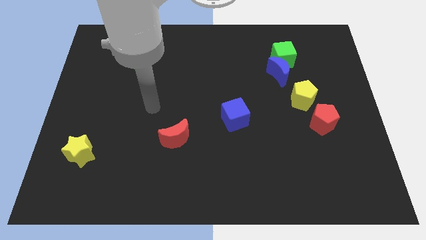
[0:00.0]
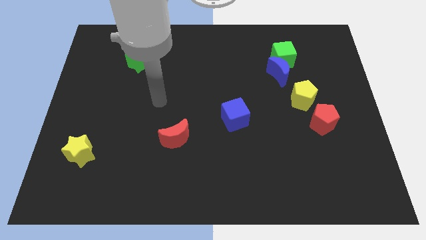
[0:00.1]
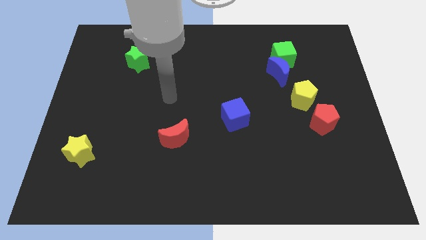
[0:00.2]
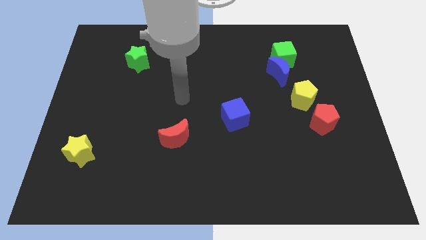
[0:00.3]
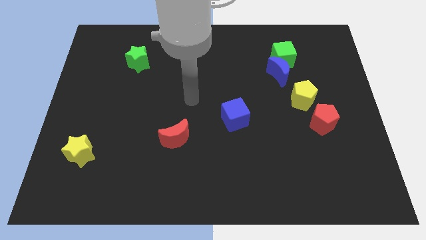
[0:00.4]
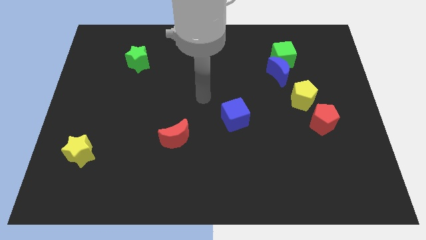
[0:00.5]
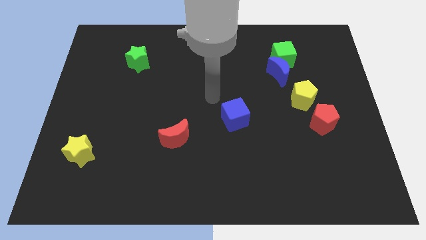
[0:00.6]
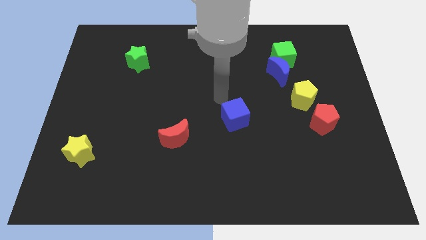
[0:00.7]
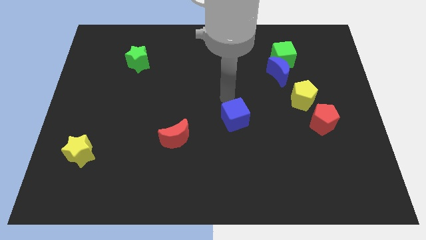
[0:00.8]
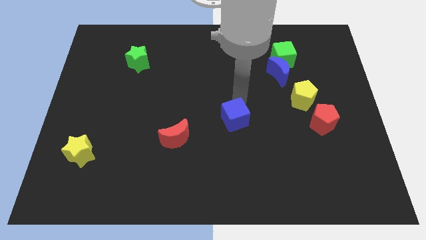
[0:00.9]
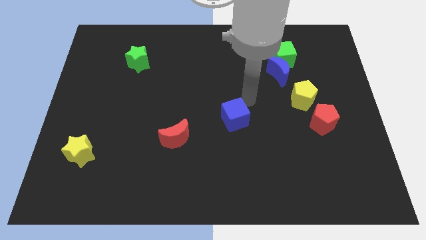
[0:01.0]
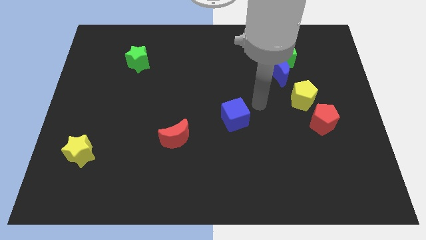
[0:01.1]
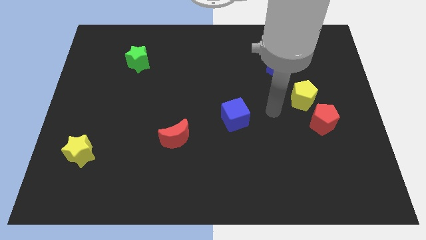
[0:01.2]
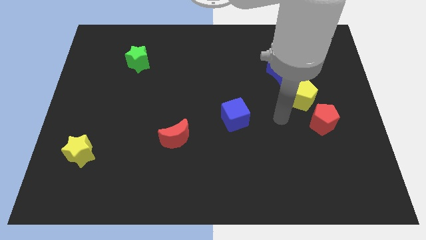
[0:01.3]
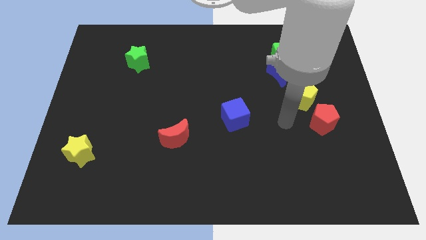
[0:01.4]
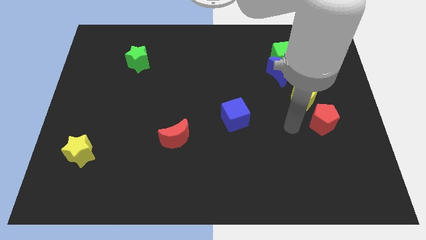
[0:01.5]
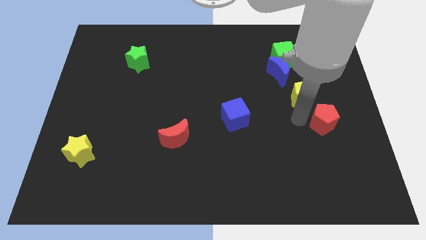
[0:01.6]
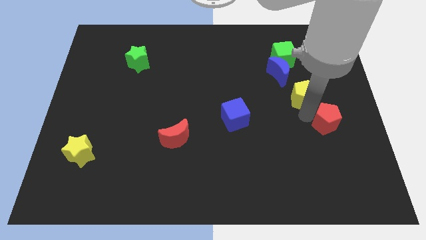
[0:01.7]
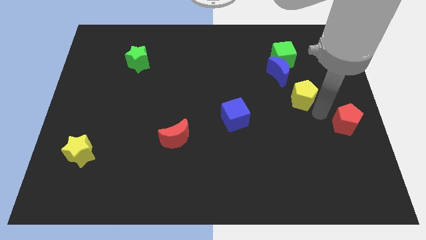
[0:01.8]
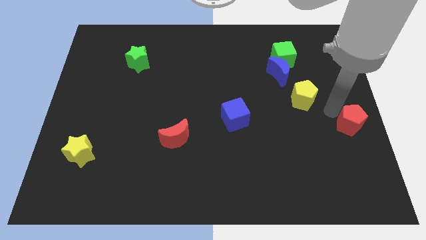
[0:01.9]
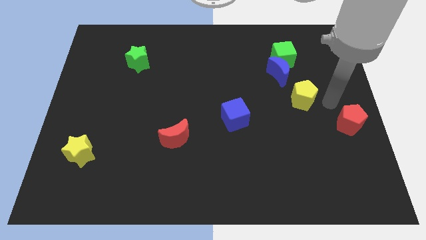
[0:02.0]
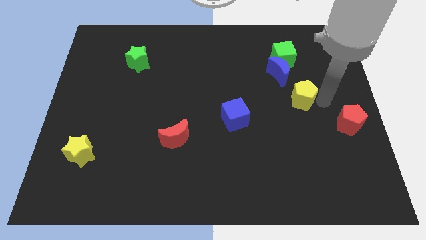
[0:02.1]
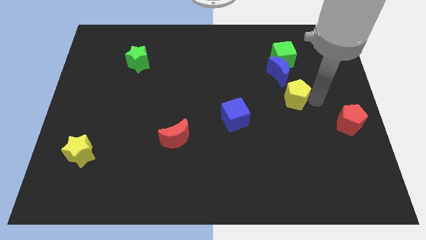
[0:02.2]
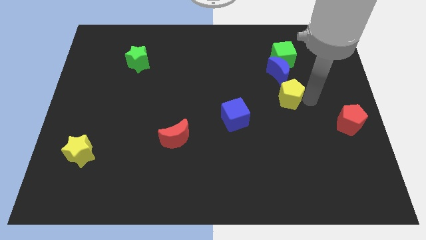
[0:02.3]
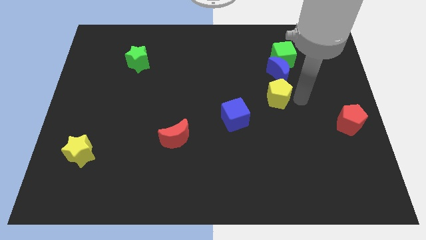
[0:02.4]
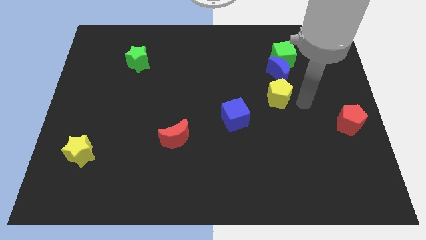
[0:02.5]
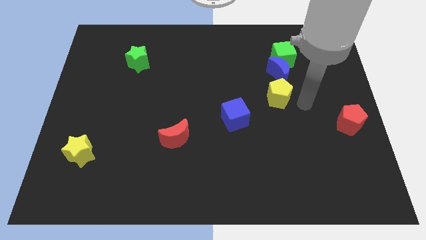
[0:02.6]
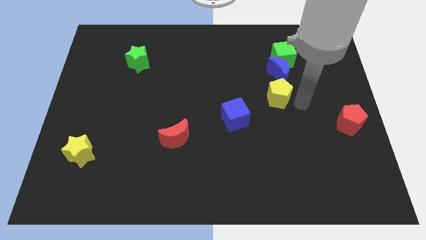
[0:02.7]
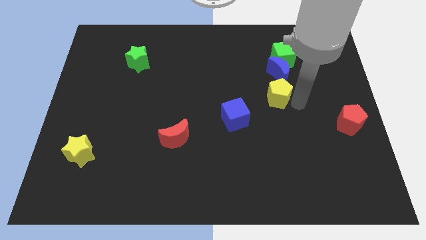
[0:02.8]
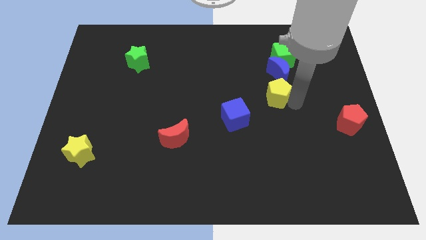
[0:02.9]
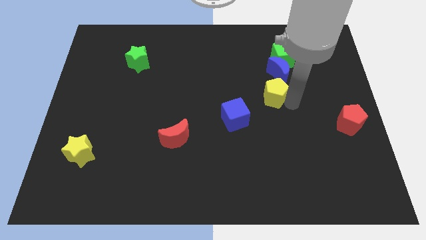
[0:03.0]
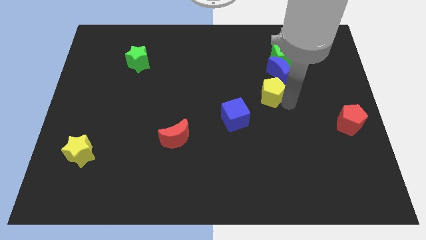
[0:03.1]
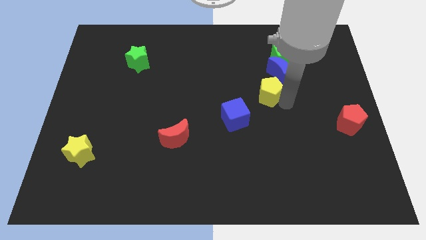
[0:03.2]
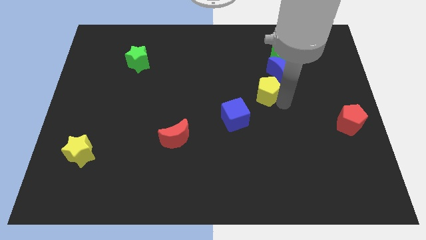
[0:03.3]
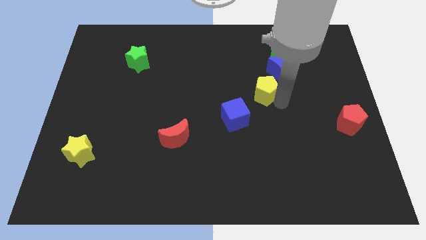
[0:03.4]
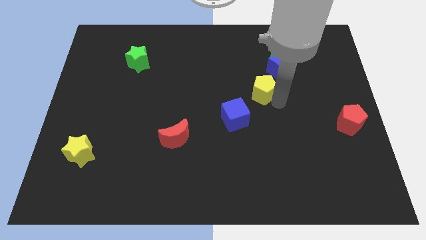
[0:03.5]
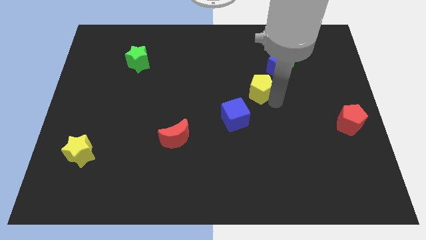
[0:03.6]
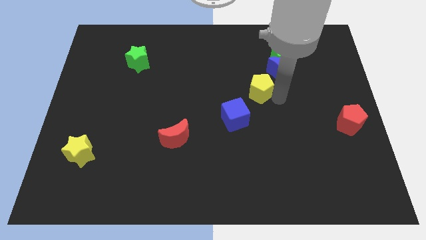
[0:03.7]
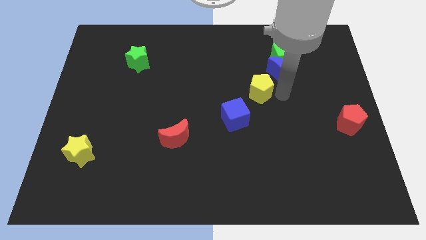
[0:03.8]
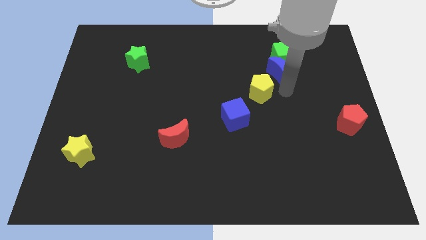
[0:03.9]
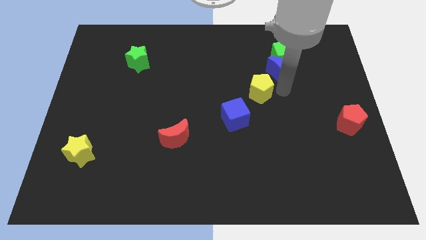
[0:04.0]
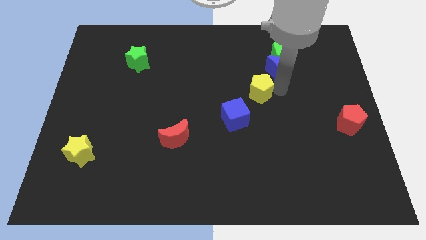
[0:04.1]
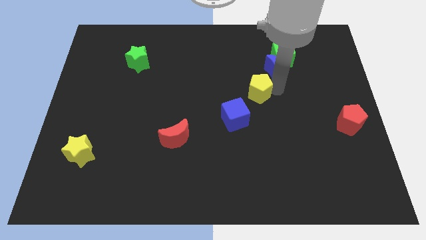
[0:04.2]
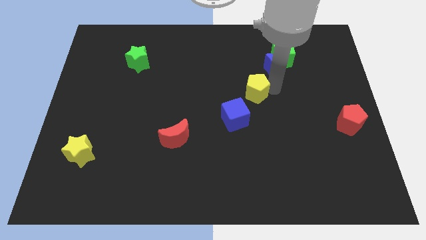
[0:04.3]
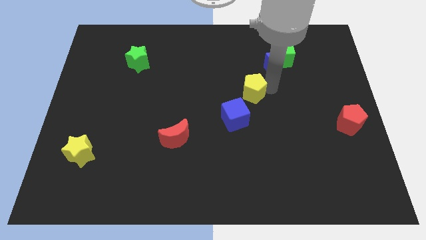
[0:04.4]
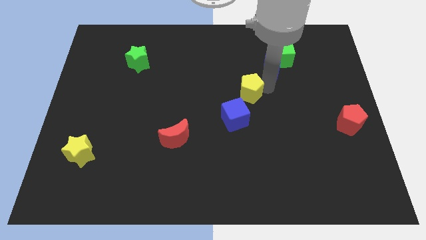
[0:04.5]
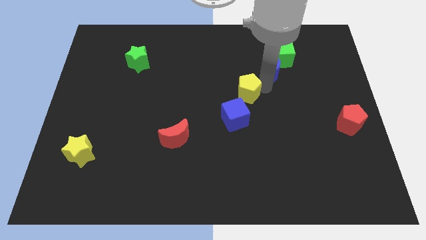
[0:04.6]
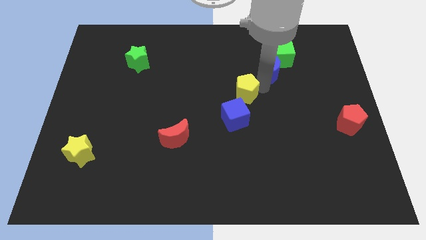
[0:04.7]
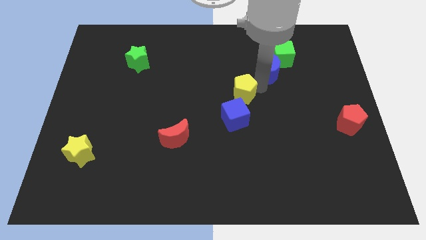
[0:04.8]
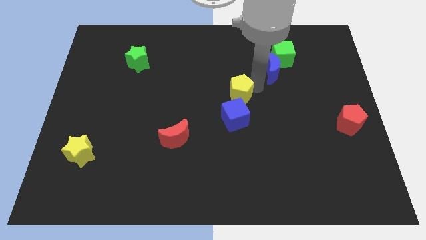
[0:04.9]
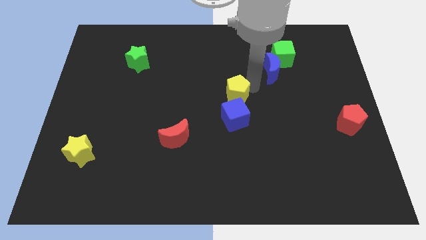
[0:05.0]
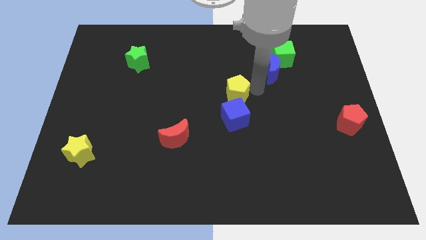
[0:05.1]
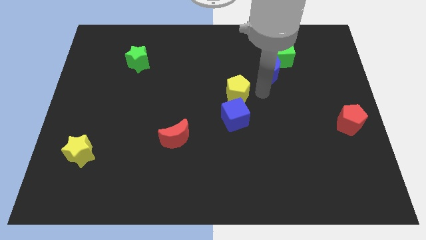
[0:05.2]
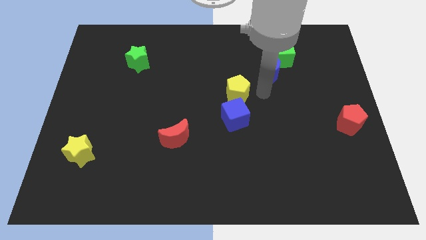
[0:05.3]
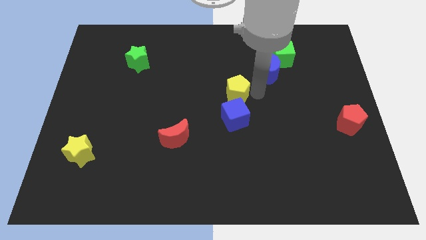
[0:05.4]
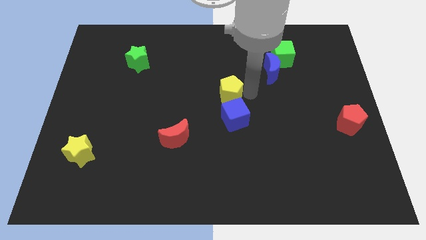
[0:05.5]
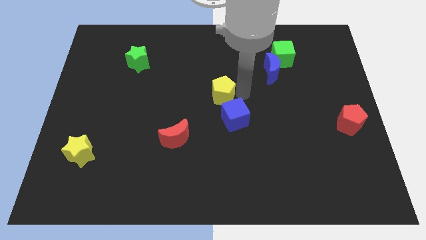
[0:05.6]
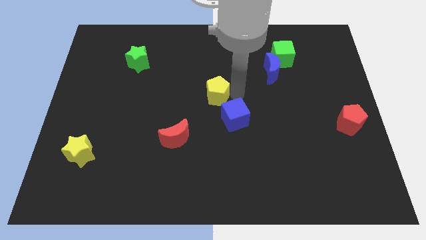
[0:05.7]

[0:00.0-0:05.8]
move the yellow pentagon left

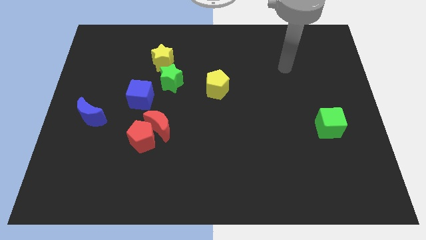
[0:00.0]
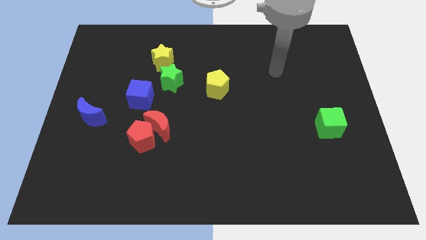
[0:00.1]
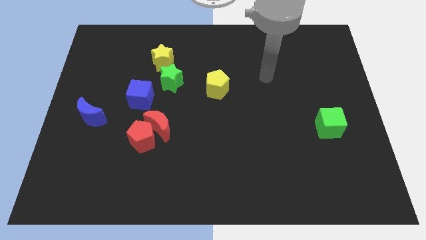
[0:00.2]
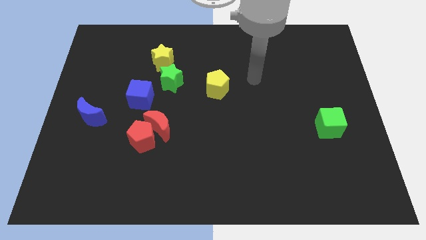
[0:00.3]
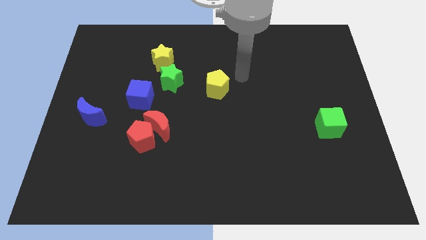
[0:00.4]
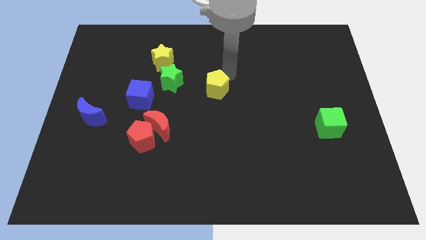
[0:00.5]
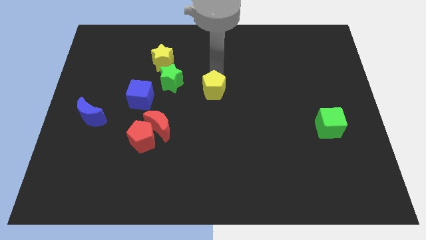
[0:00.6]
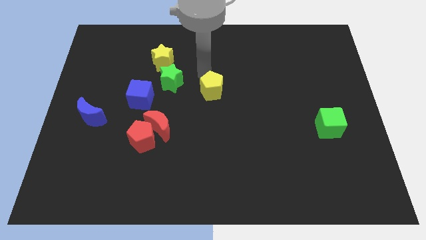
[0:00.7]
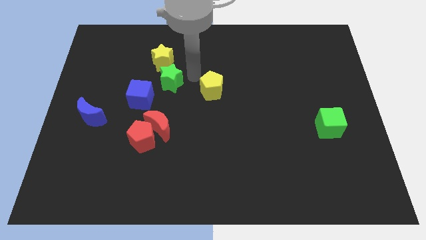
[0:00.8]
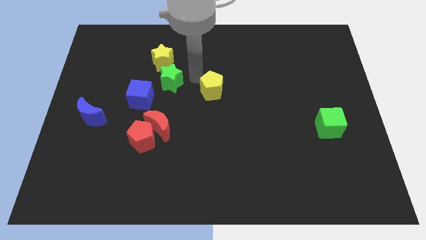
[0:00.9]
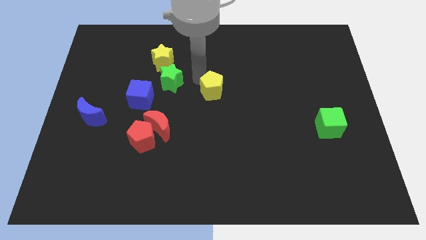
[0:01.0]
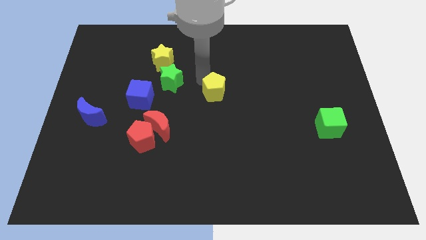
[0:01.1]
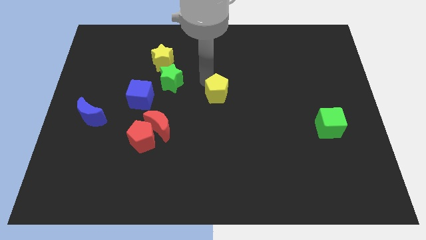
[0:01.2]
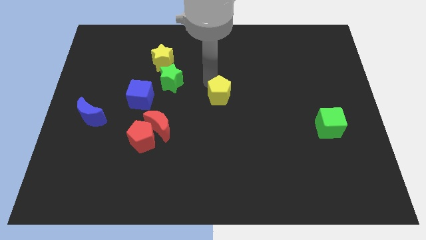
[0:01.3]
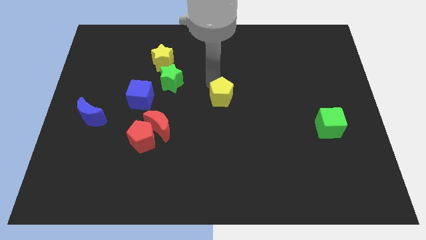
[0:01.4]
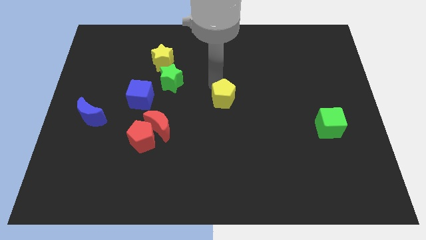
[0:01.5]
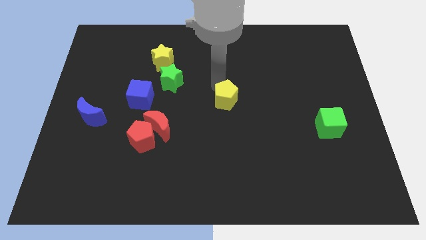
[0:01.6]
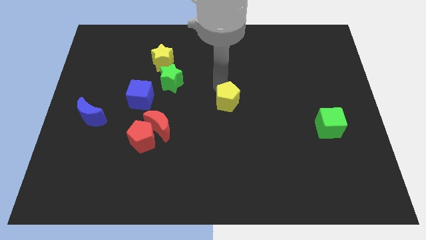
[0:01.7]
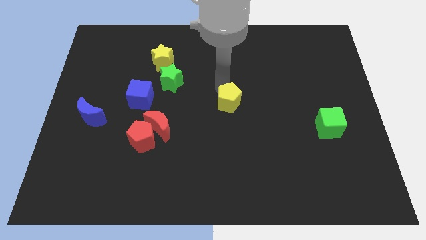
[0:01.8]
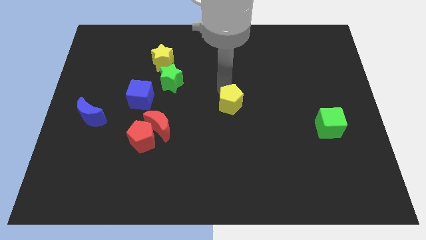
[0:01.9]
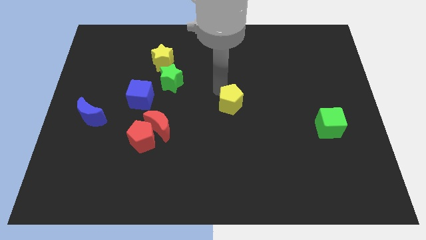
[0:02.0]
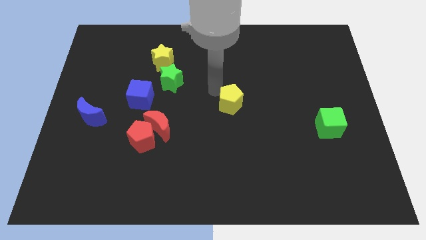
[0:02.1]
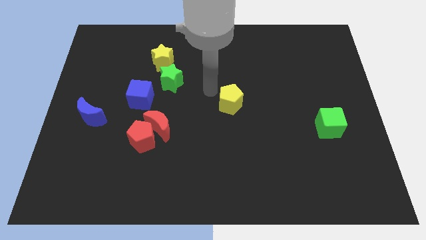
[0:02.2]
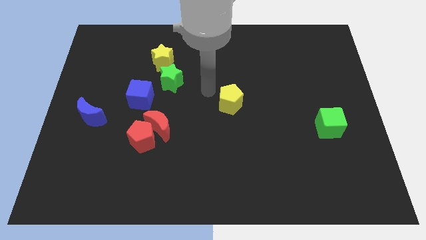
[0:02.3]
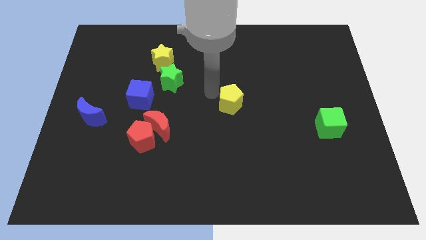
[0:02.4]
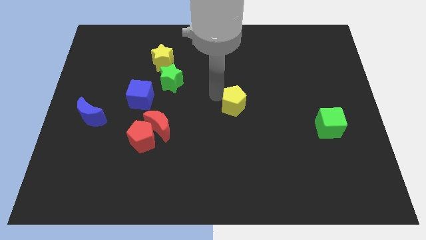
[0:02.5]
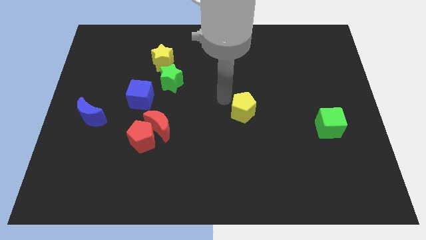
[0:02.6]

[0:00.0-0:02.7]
slightly move the yellow pentagon down and right diagonally
